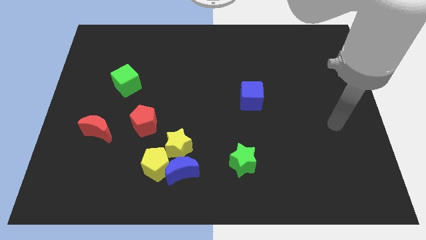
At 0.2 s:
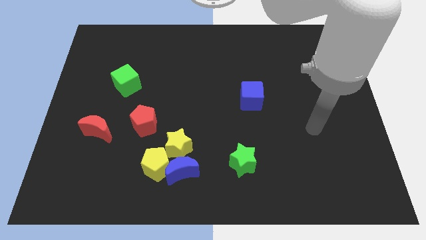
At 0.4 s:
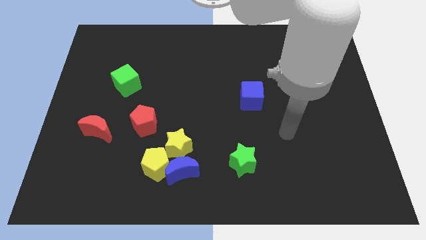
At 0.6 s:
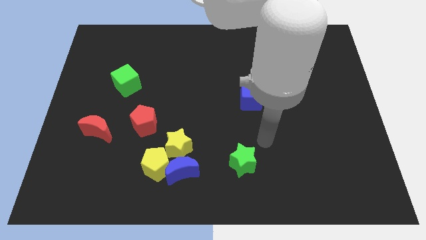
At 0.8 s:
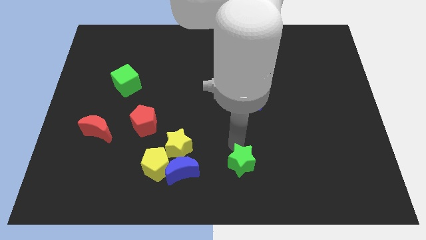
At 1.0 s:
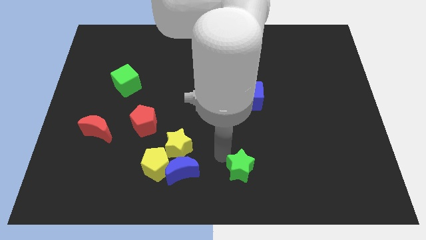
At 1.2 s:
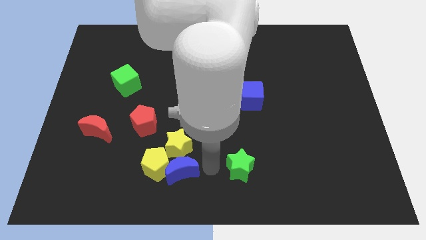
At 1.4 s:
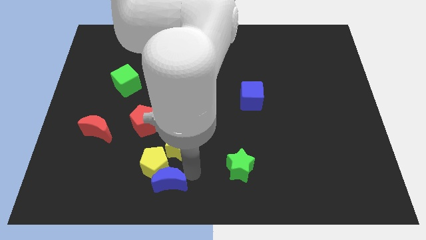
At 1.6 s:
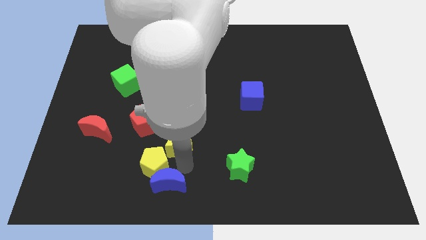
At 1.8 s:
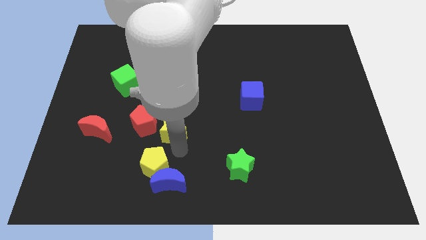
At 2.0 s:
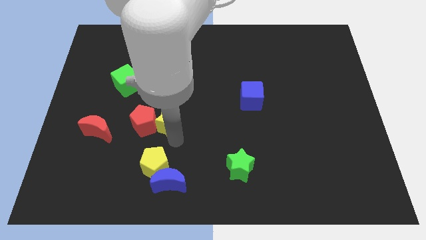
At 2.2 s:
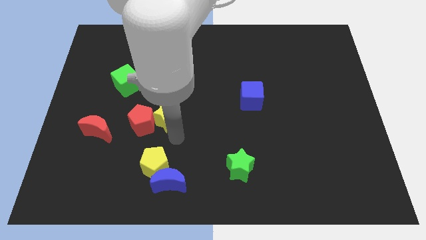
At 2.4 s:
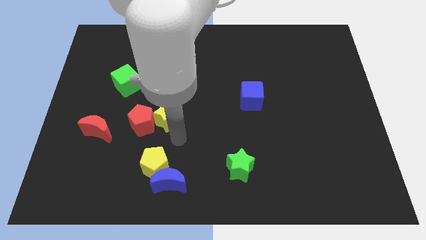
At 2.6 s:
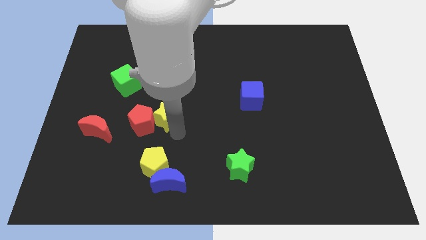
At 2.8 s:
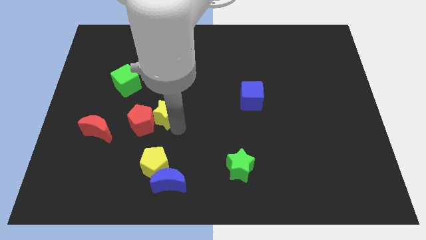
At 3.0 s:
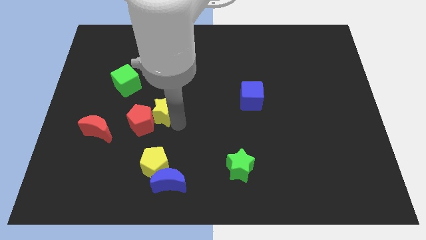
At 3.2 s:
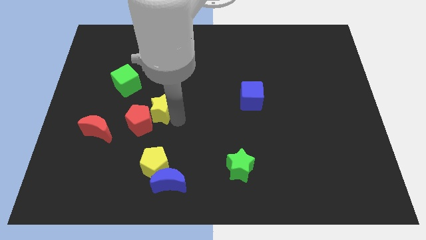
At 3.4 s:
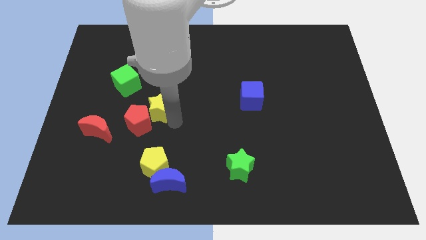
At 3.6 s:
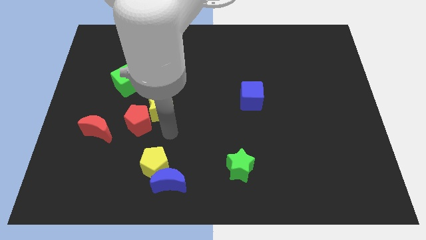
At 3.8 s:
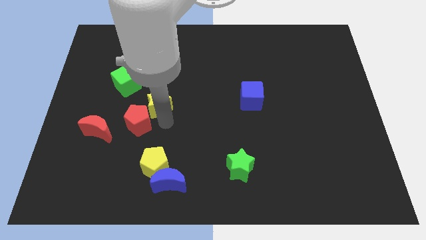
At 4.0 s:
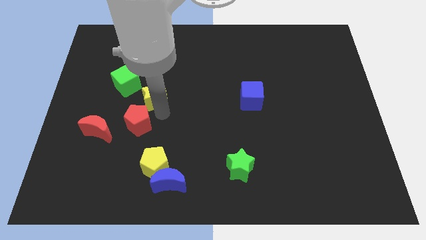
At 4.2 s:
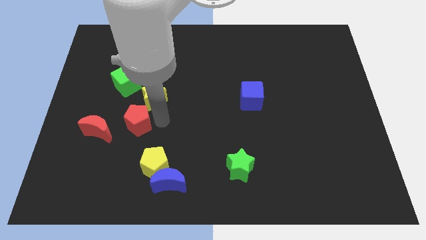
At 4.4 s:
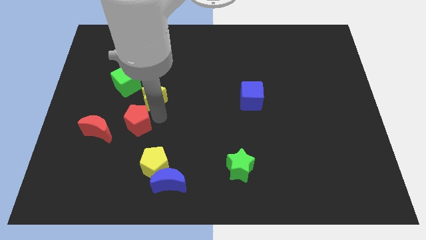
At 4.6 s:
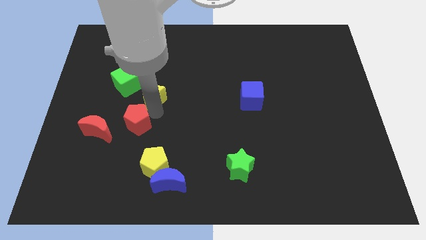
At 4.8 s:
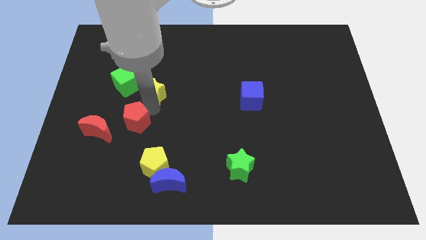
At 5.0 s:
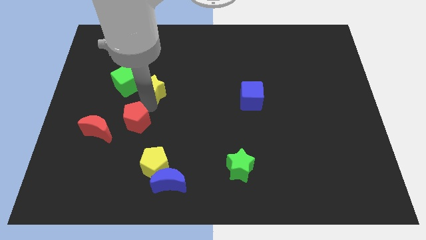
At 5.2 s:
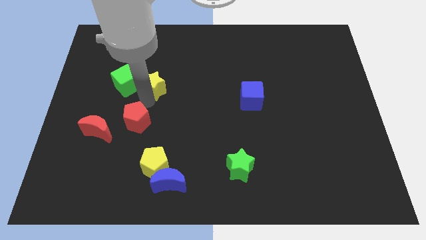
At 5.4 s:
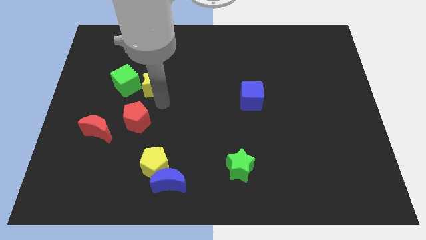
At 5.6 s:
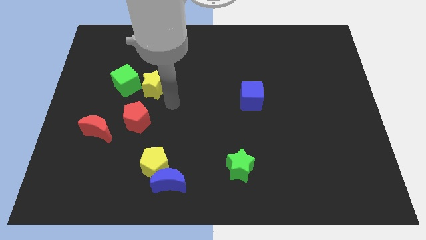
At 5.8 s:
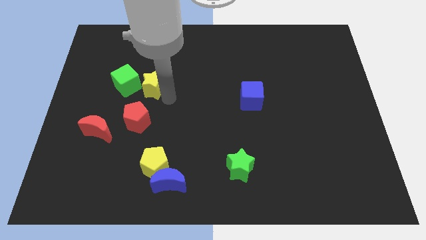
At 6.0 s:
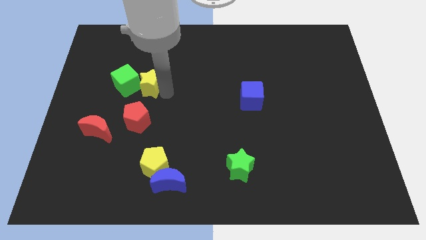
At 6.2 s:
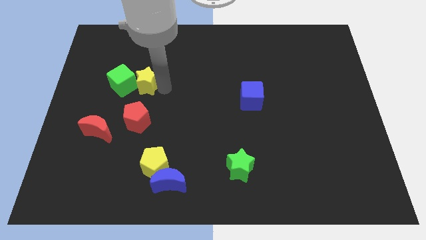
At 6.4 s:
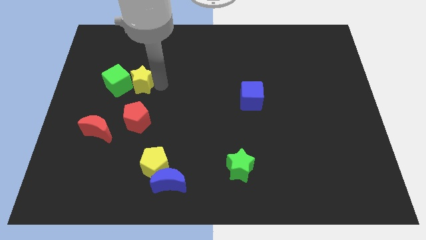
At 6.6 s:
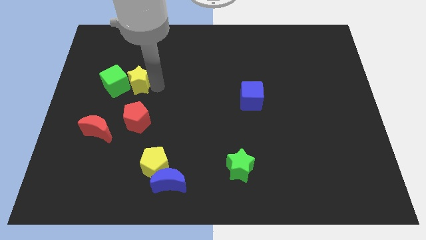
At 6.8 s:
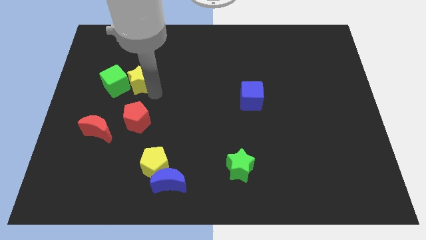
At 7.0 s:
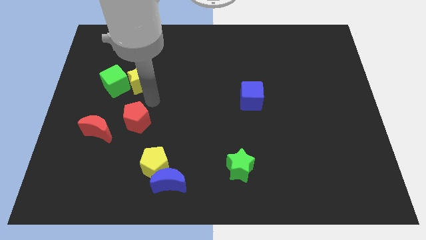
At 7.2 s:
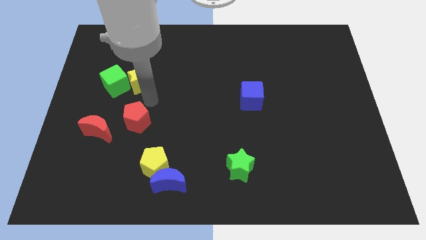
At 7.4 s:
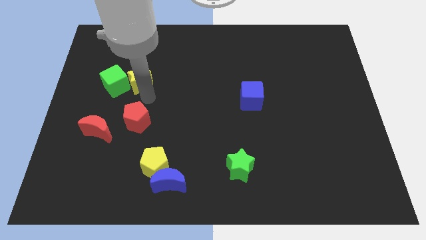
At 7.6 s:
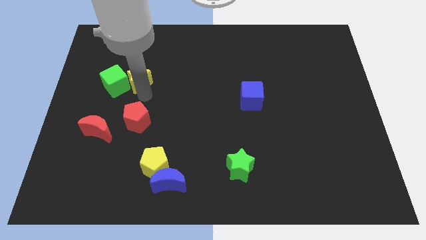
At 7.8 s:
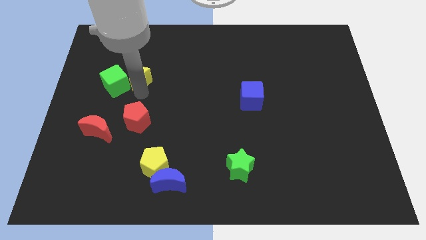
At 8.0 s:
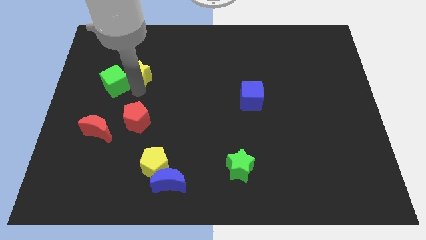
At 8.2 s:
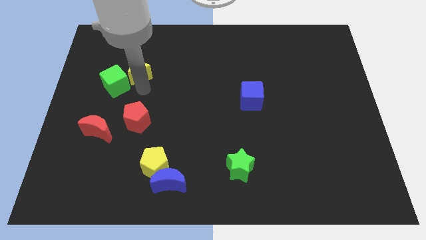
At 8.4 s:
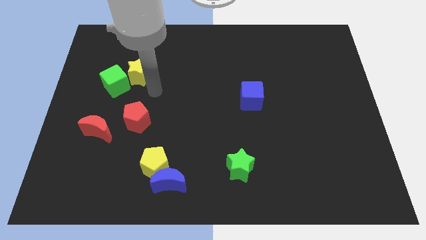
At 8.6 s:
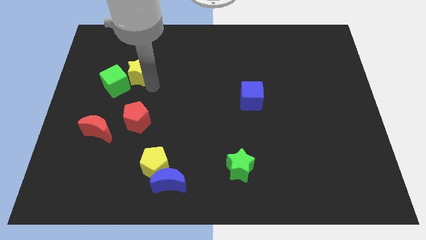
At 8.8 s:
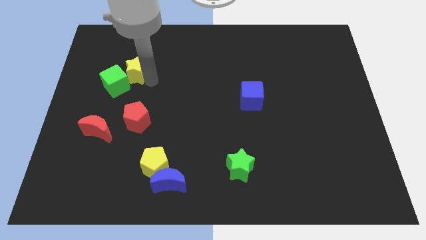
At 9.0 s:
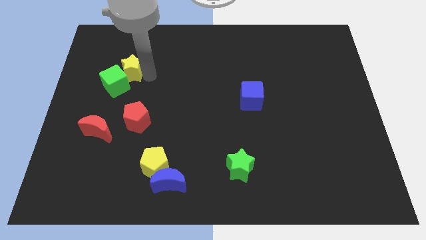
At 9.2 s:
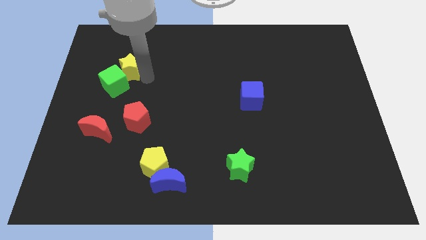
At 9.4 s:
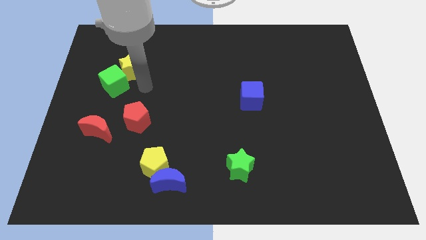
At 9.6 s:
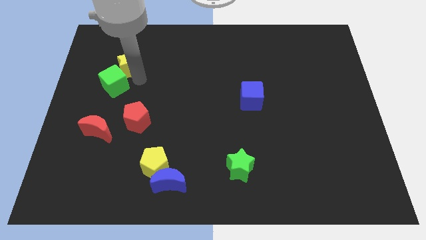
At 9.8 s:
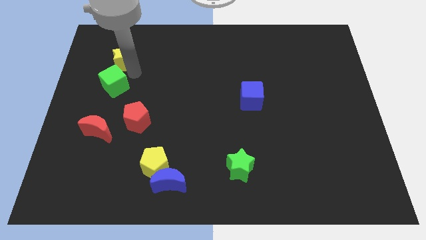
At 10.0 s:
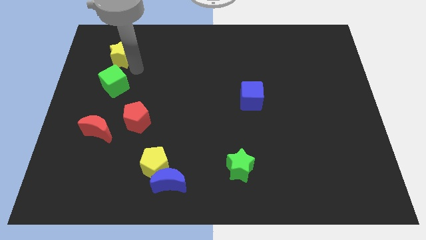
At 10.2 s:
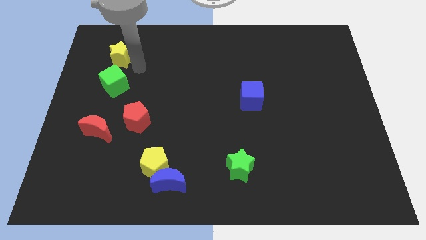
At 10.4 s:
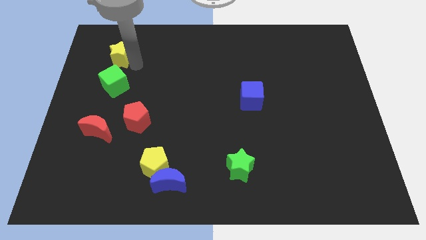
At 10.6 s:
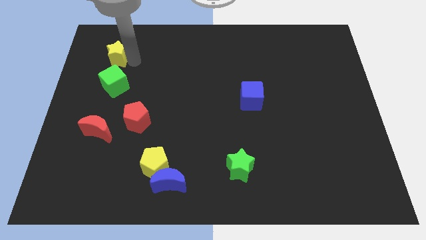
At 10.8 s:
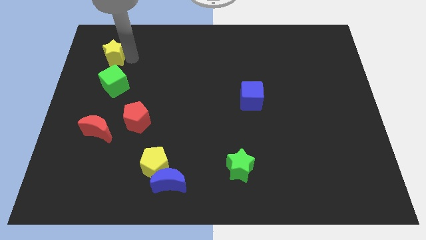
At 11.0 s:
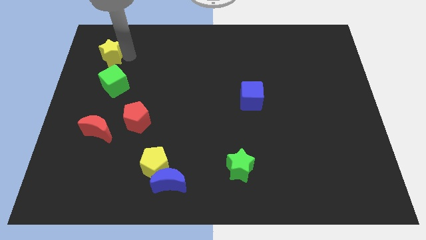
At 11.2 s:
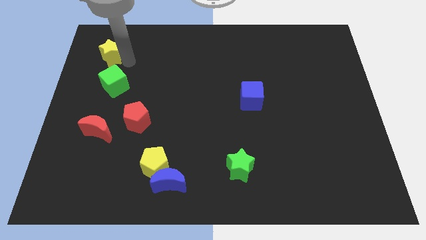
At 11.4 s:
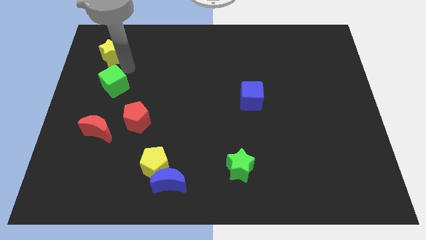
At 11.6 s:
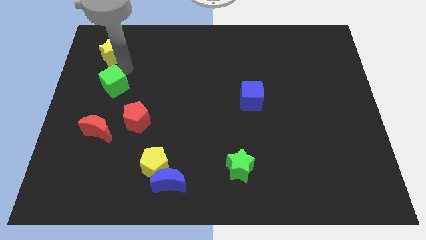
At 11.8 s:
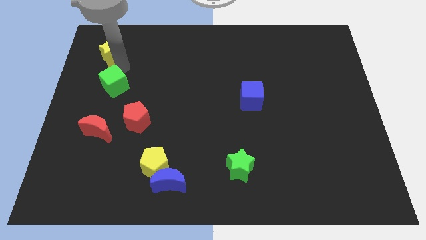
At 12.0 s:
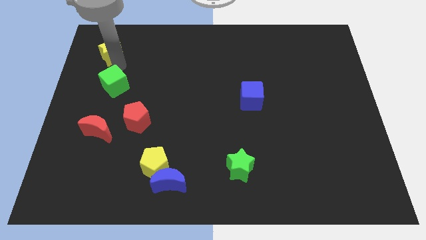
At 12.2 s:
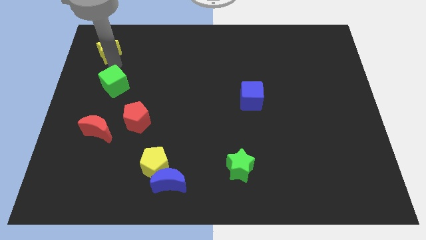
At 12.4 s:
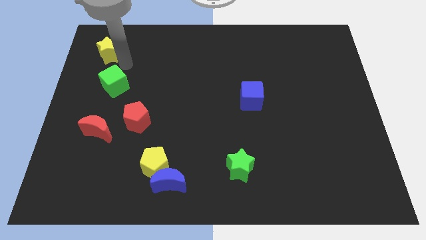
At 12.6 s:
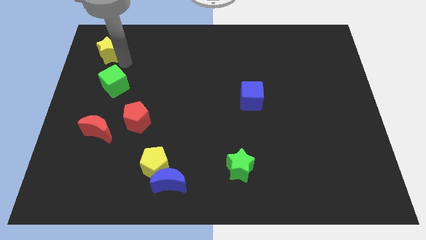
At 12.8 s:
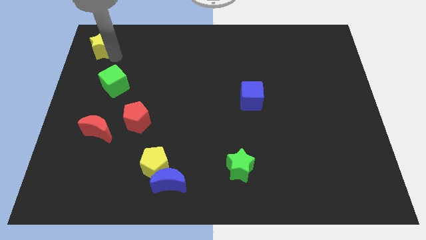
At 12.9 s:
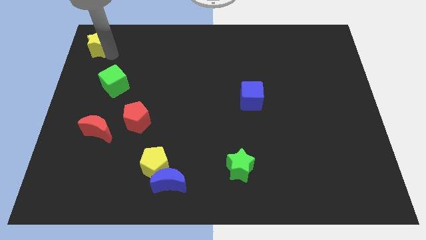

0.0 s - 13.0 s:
push the yellow star to the top left
